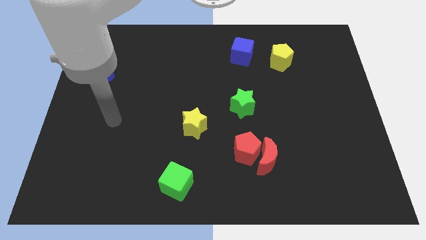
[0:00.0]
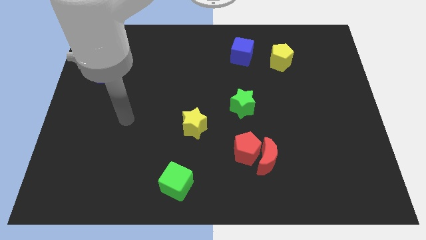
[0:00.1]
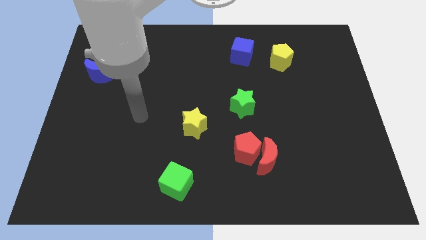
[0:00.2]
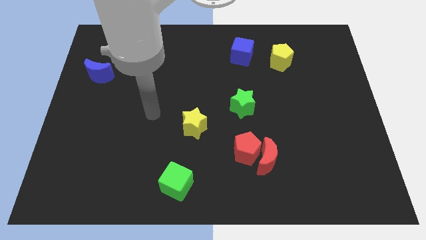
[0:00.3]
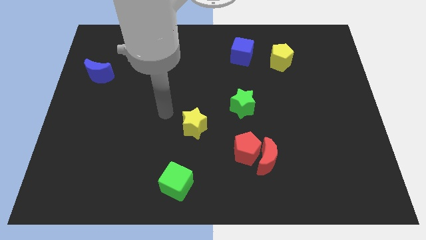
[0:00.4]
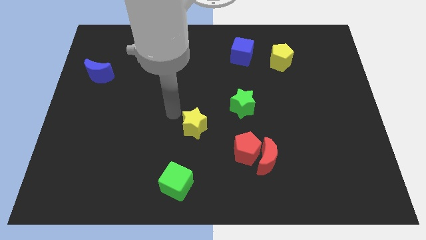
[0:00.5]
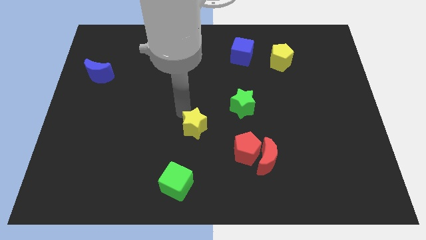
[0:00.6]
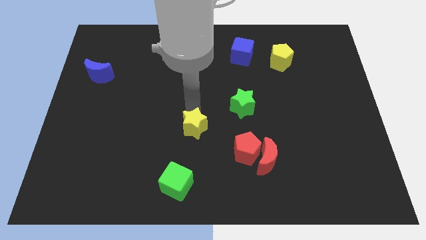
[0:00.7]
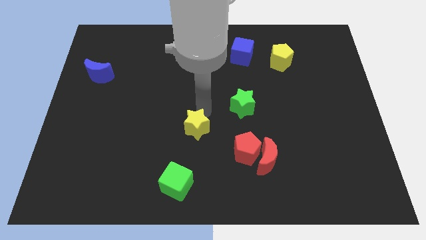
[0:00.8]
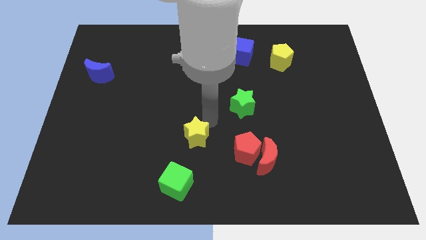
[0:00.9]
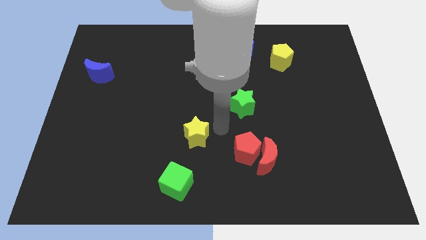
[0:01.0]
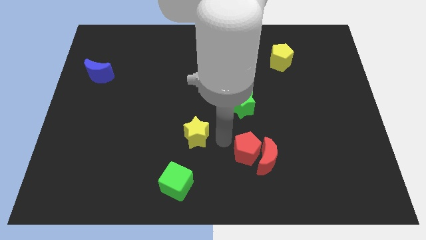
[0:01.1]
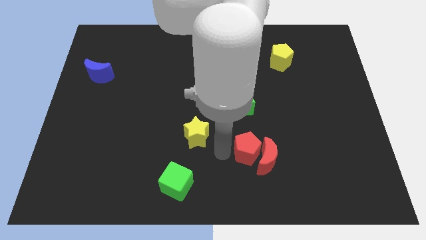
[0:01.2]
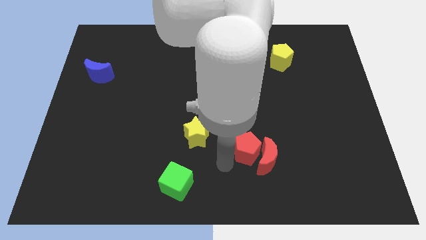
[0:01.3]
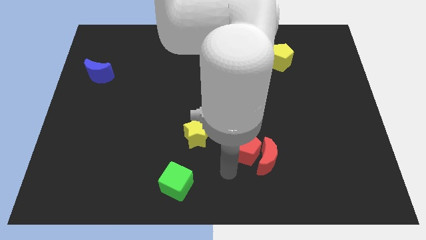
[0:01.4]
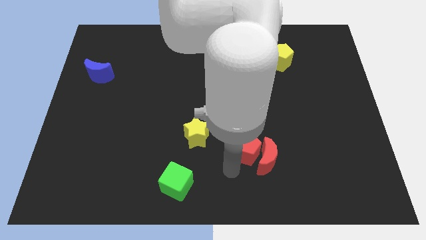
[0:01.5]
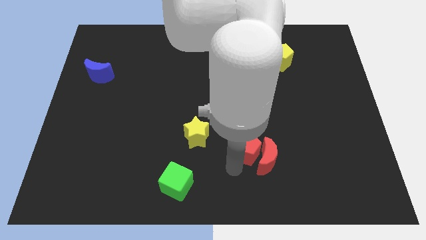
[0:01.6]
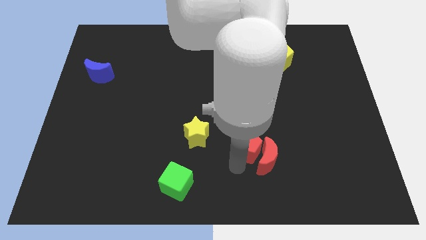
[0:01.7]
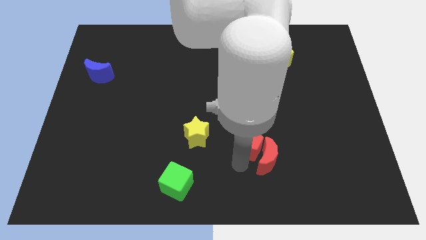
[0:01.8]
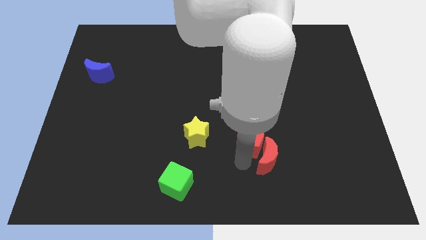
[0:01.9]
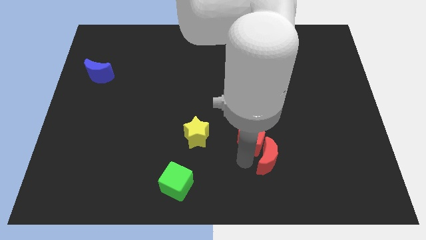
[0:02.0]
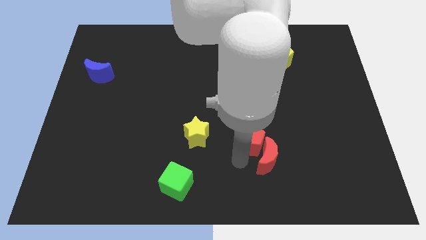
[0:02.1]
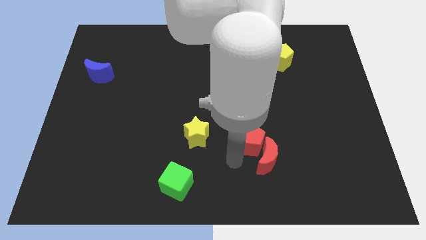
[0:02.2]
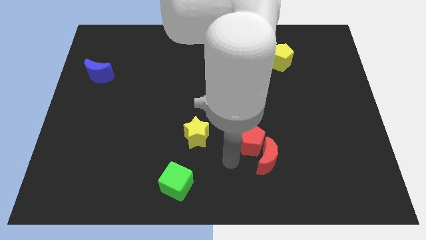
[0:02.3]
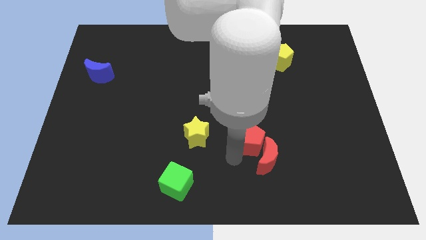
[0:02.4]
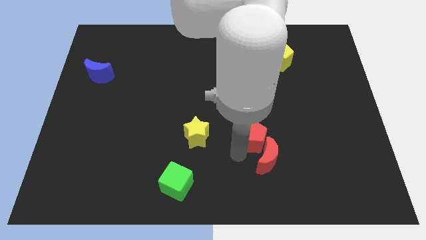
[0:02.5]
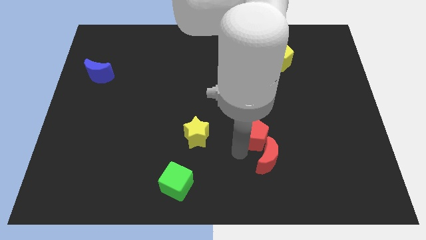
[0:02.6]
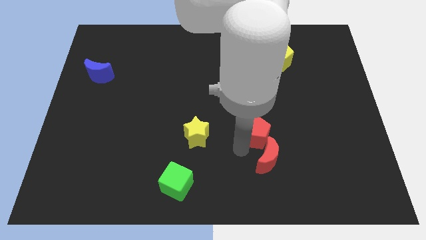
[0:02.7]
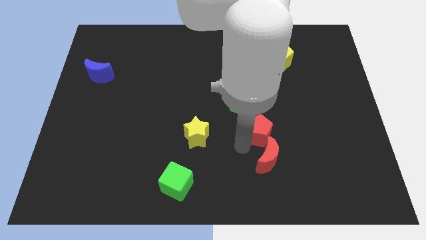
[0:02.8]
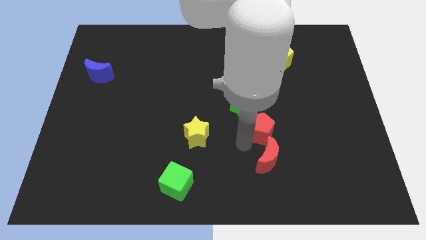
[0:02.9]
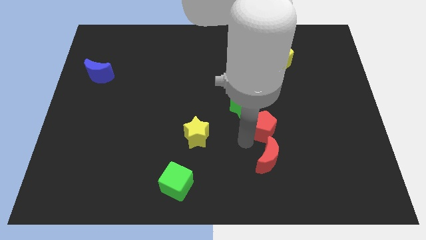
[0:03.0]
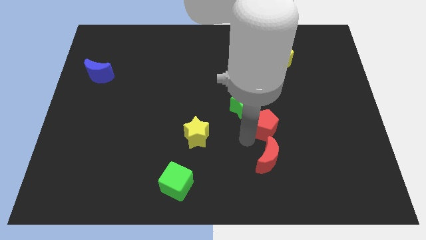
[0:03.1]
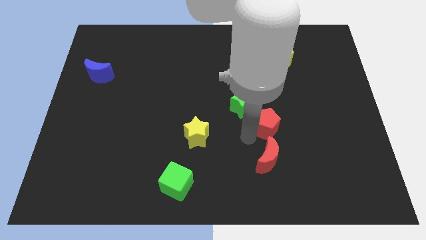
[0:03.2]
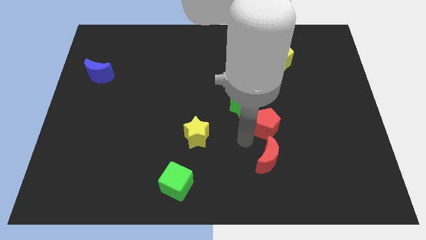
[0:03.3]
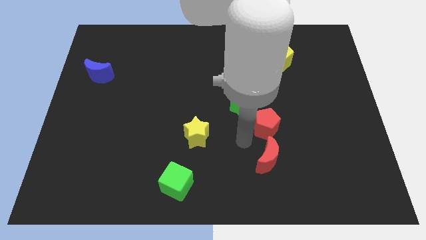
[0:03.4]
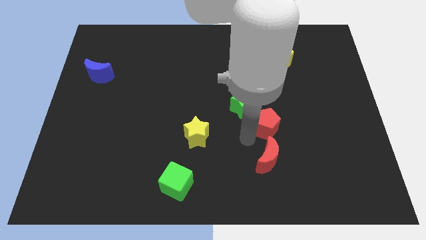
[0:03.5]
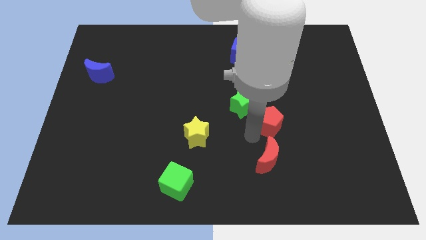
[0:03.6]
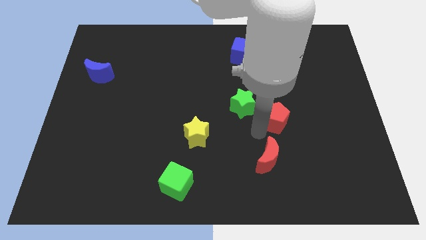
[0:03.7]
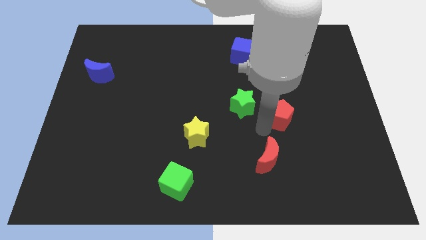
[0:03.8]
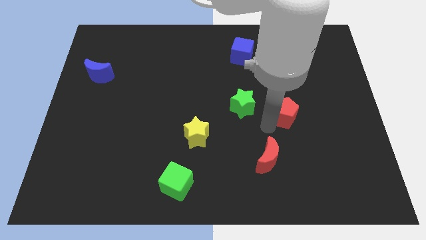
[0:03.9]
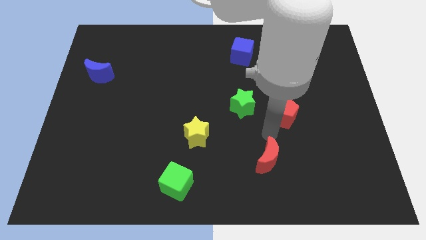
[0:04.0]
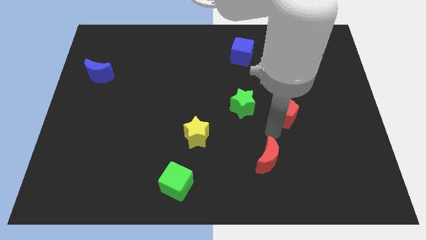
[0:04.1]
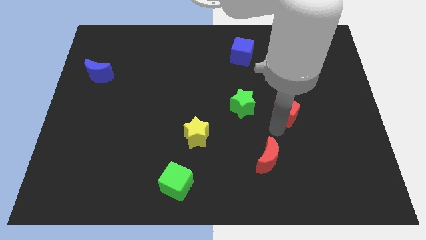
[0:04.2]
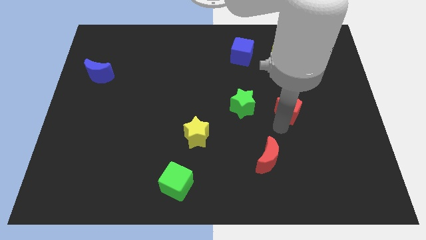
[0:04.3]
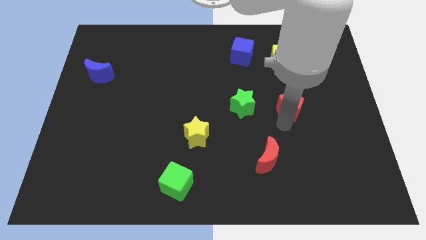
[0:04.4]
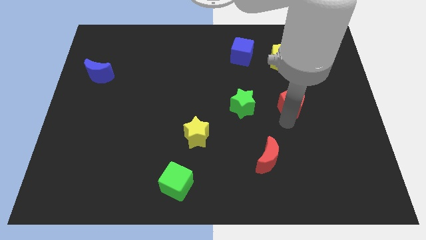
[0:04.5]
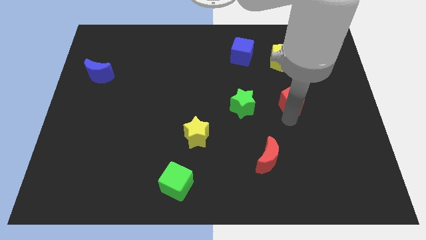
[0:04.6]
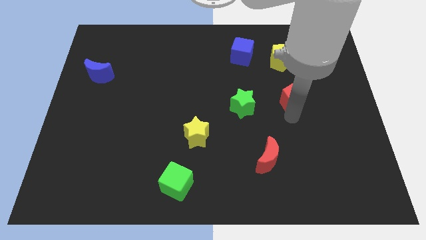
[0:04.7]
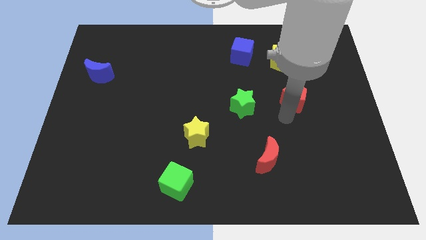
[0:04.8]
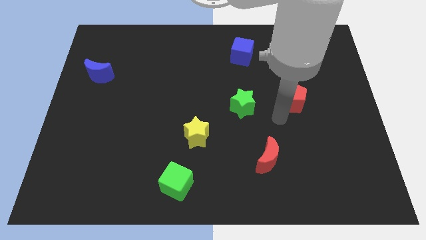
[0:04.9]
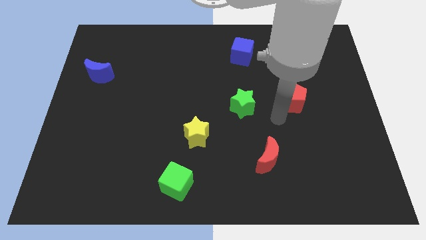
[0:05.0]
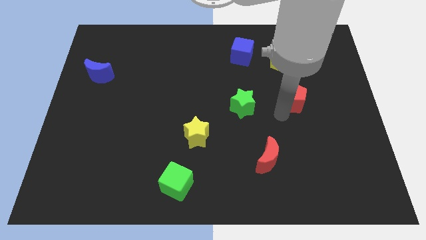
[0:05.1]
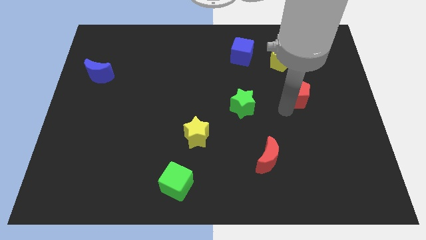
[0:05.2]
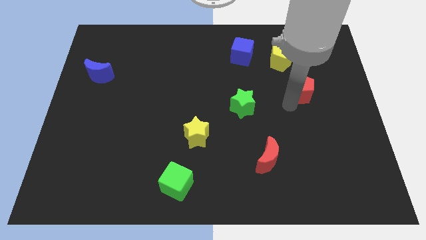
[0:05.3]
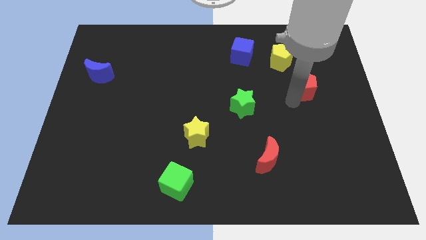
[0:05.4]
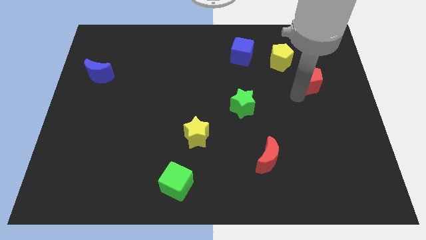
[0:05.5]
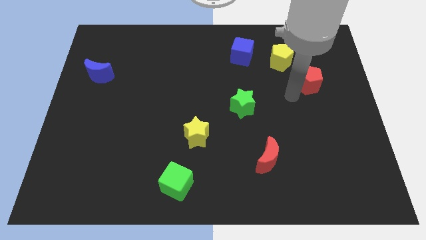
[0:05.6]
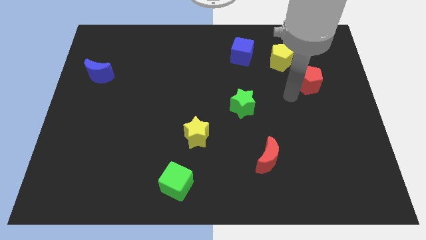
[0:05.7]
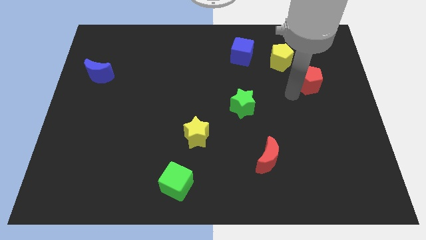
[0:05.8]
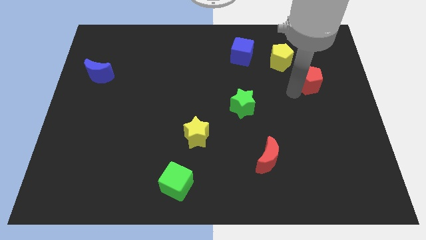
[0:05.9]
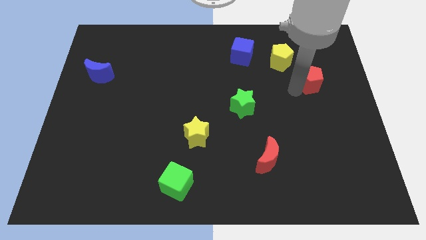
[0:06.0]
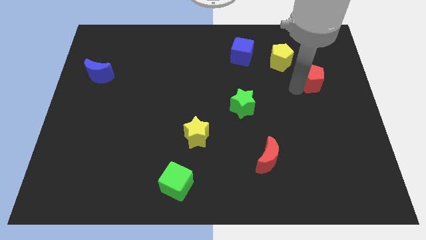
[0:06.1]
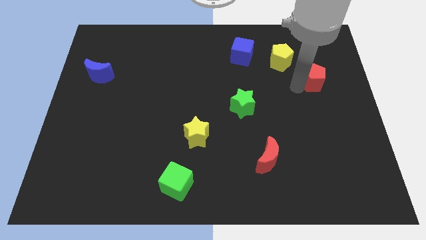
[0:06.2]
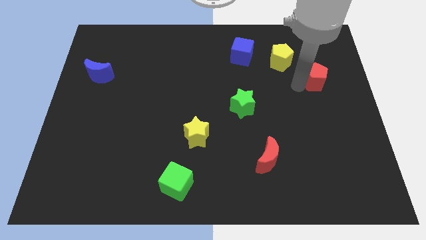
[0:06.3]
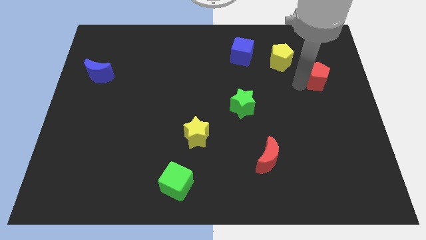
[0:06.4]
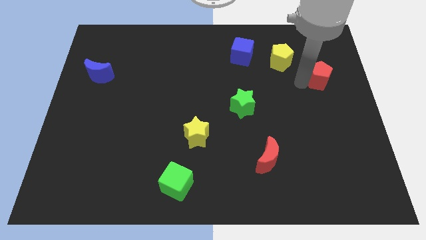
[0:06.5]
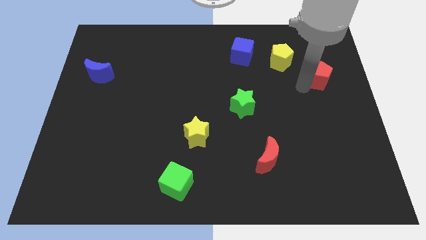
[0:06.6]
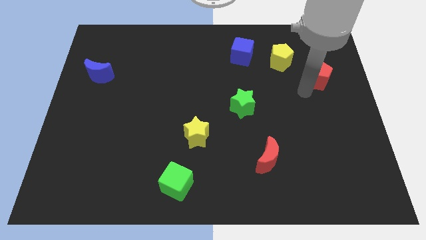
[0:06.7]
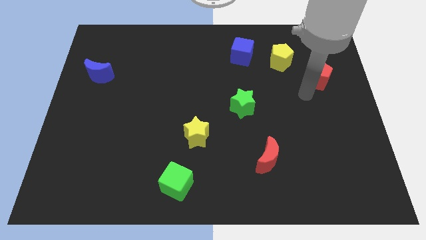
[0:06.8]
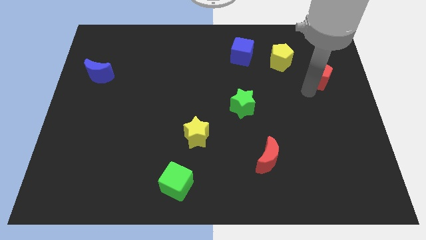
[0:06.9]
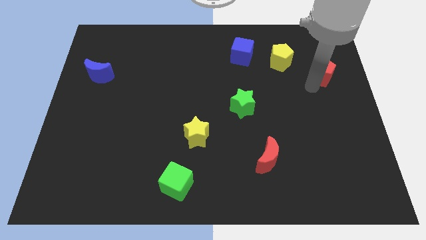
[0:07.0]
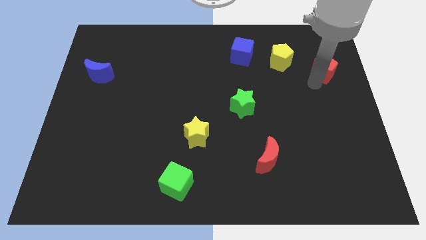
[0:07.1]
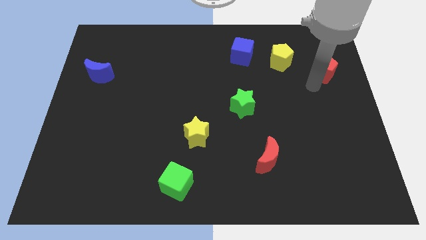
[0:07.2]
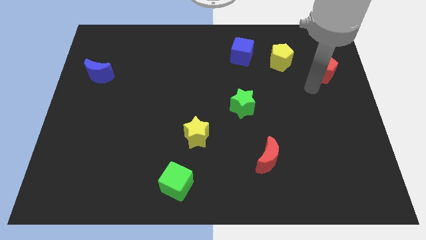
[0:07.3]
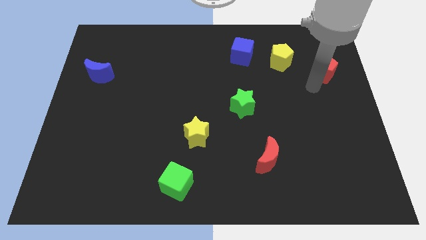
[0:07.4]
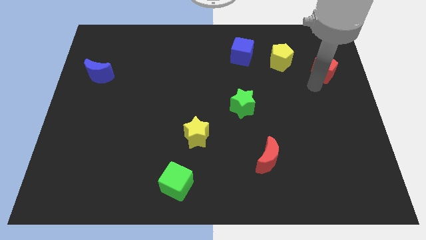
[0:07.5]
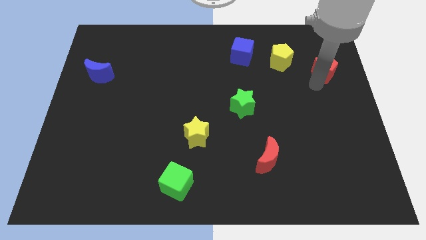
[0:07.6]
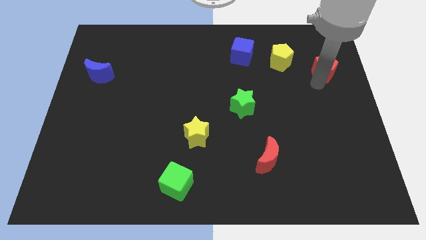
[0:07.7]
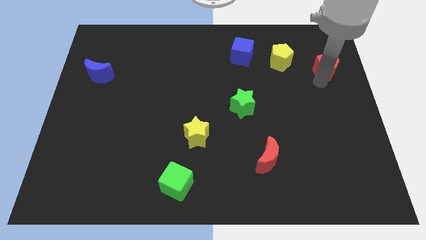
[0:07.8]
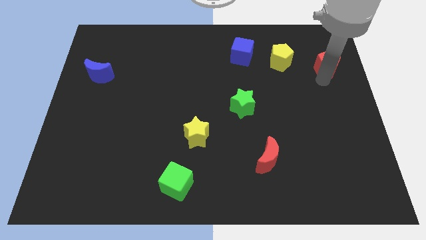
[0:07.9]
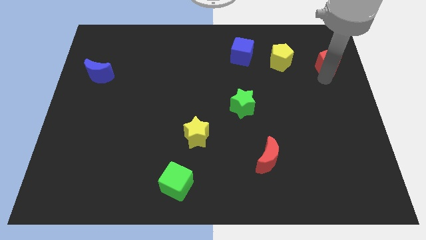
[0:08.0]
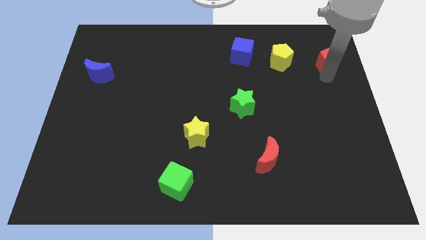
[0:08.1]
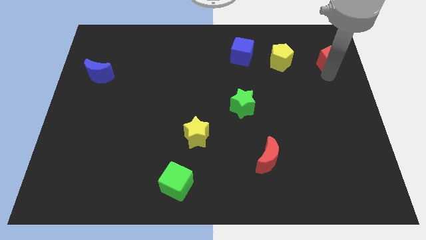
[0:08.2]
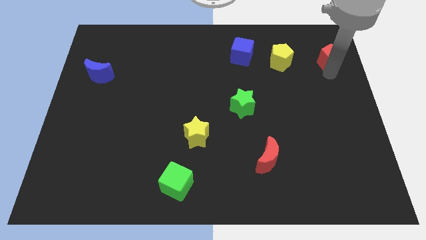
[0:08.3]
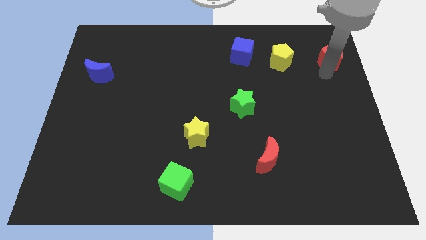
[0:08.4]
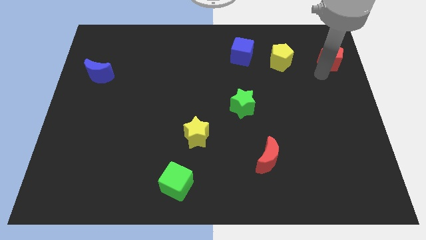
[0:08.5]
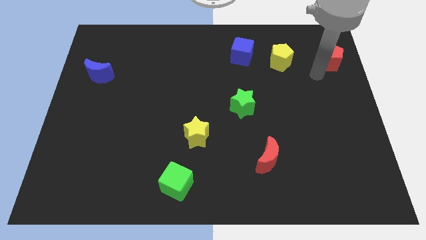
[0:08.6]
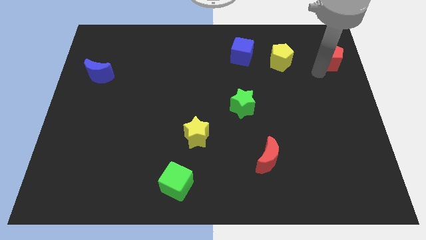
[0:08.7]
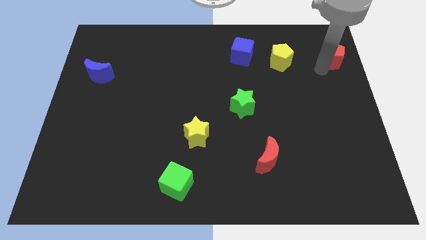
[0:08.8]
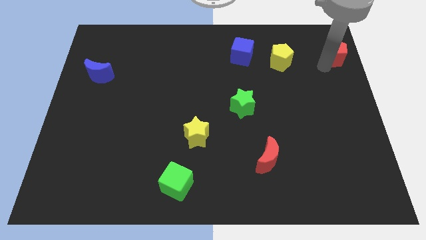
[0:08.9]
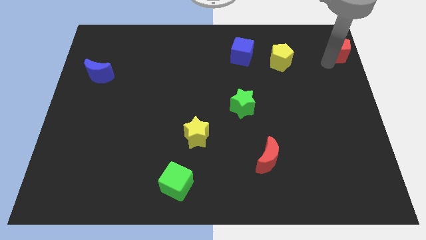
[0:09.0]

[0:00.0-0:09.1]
push the red pentagon to the upper right corner
